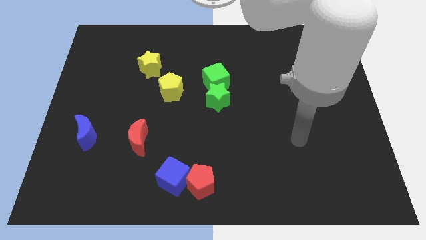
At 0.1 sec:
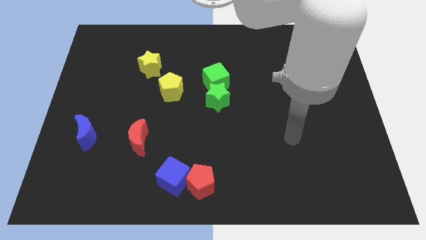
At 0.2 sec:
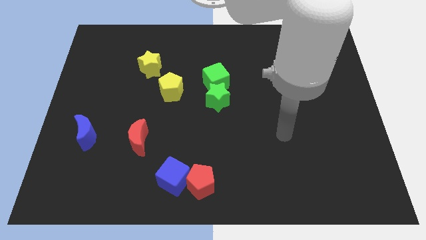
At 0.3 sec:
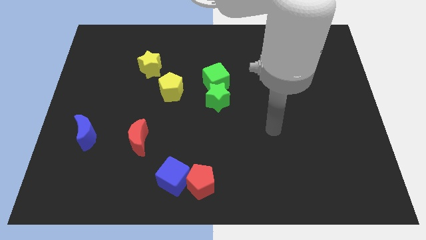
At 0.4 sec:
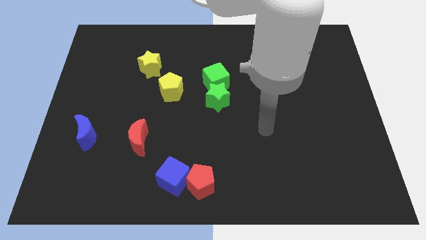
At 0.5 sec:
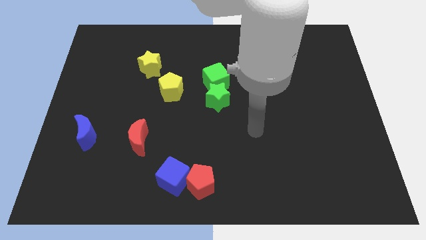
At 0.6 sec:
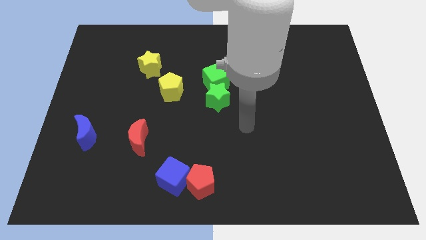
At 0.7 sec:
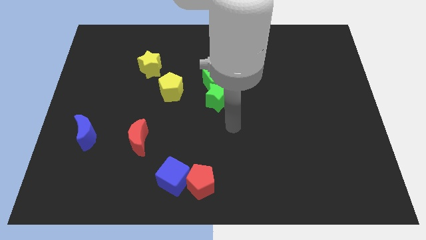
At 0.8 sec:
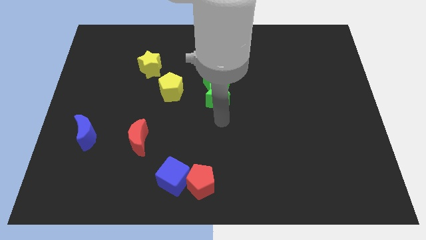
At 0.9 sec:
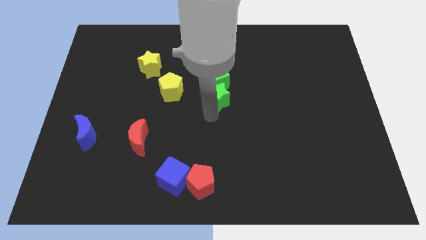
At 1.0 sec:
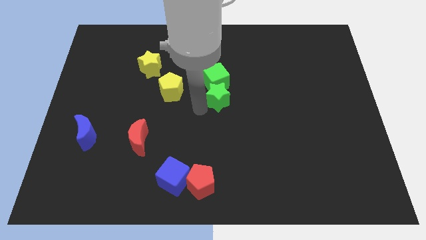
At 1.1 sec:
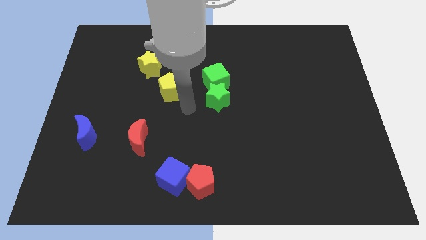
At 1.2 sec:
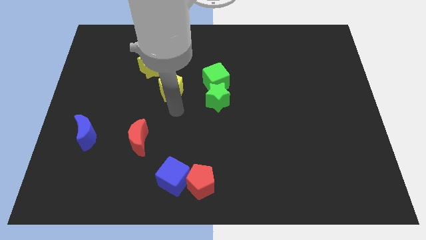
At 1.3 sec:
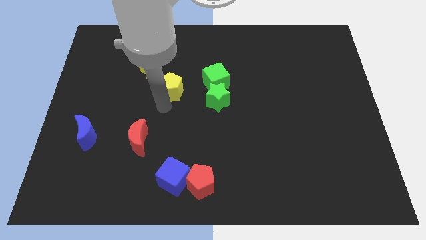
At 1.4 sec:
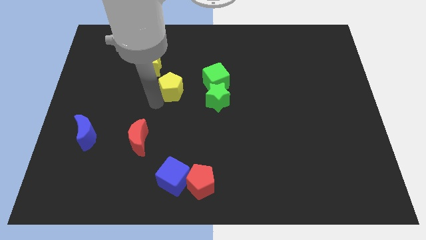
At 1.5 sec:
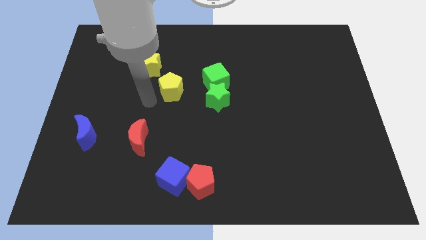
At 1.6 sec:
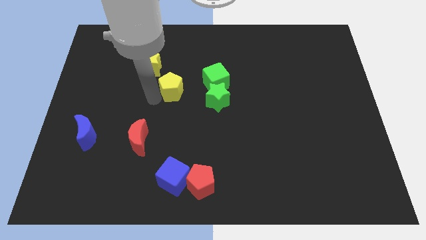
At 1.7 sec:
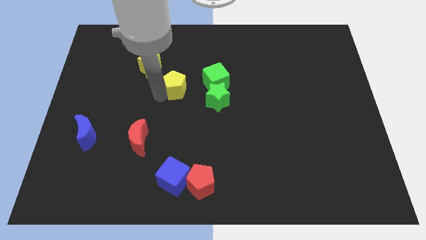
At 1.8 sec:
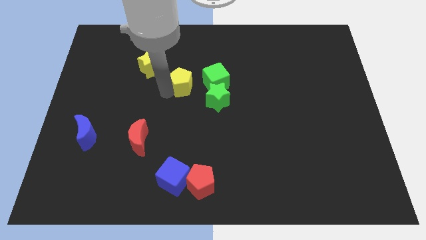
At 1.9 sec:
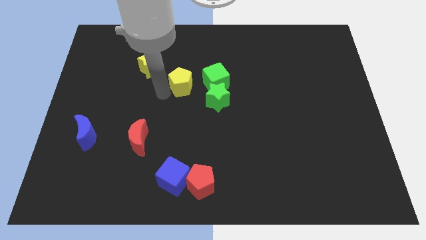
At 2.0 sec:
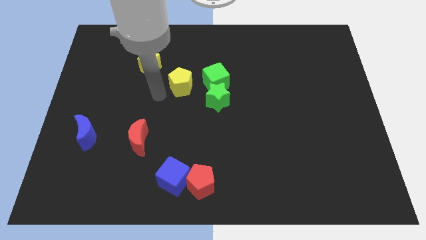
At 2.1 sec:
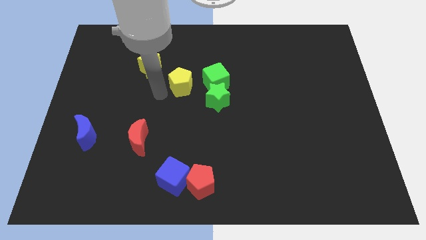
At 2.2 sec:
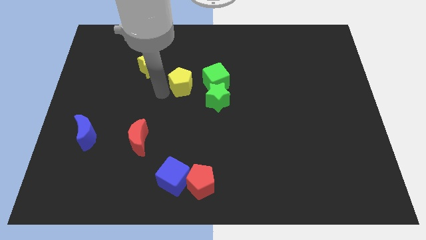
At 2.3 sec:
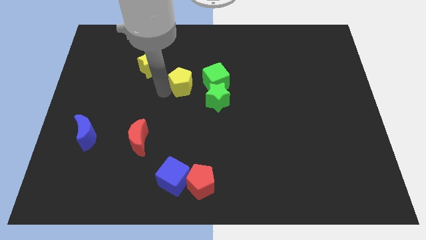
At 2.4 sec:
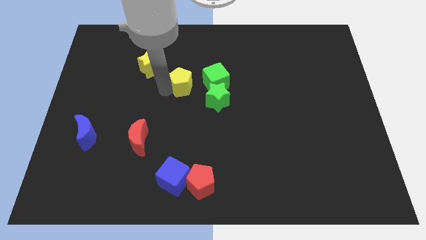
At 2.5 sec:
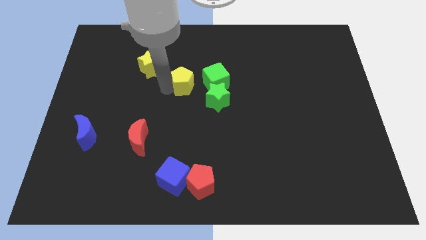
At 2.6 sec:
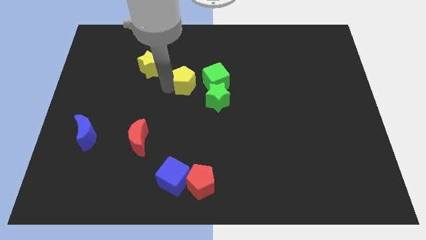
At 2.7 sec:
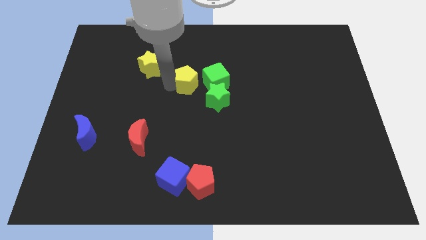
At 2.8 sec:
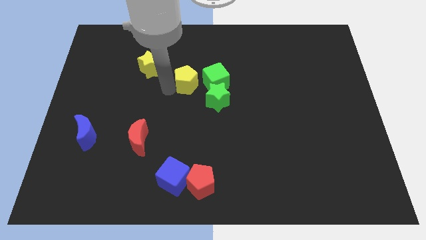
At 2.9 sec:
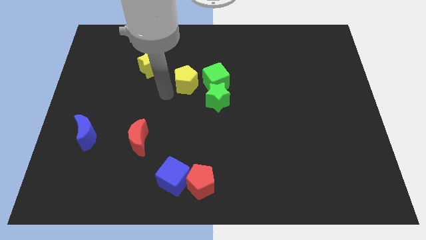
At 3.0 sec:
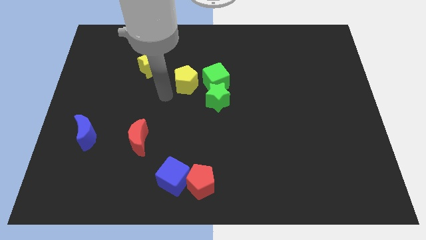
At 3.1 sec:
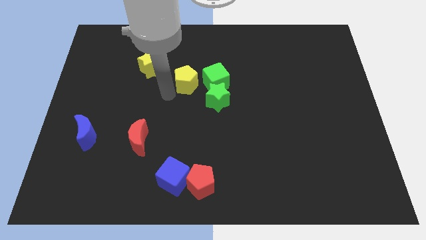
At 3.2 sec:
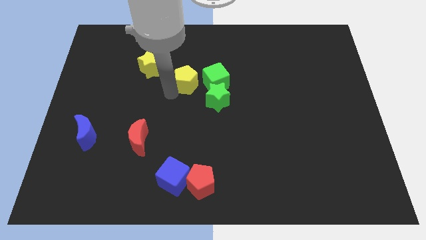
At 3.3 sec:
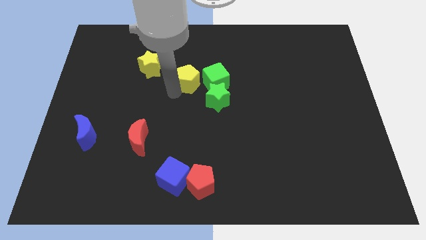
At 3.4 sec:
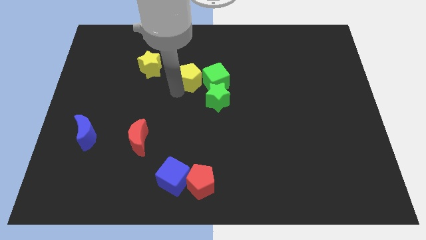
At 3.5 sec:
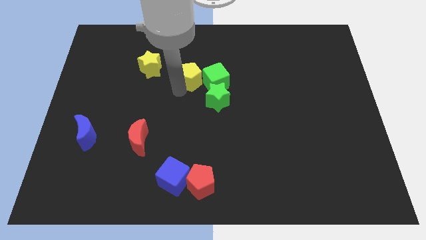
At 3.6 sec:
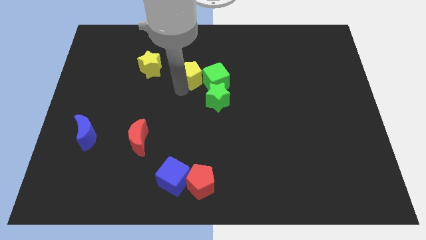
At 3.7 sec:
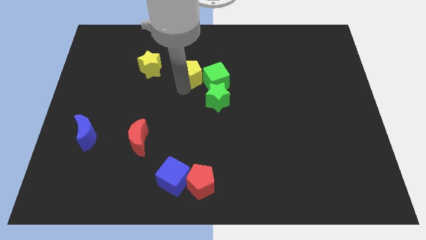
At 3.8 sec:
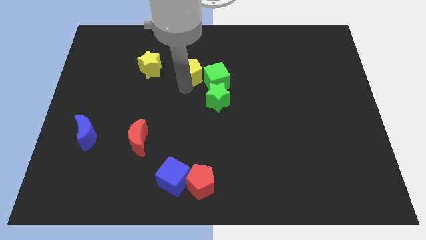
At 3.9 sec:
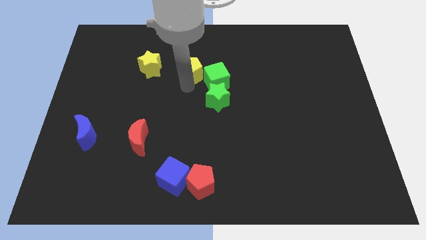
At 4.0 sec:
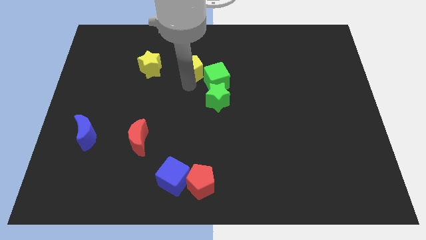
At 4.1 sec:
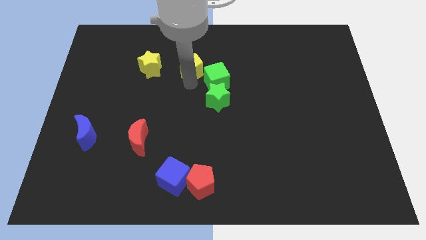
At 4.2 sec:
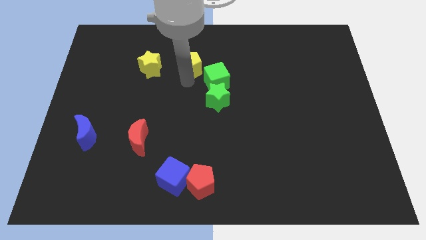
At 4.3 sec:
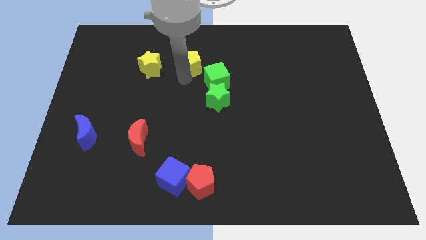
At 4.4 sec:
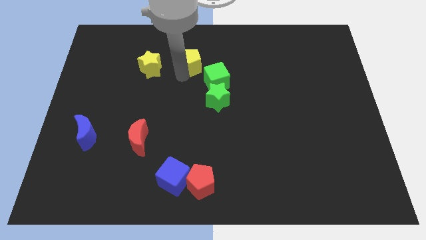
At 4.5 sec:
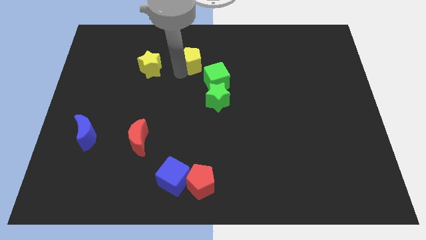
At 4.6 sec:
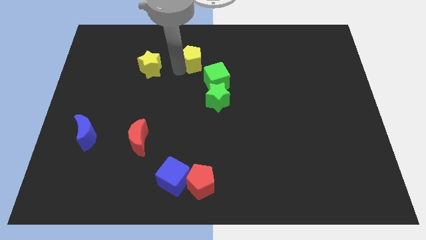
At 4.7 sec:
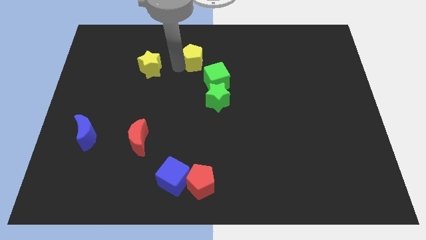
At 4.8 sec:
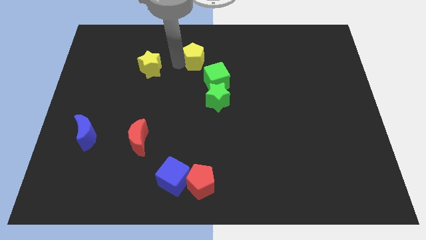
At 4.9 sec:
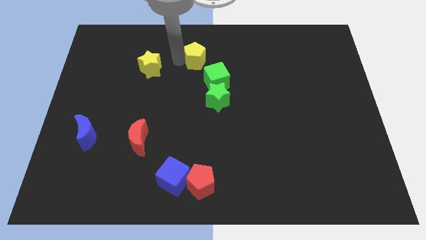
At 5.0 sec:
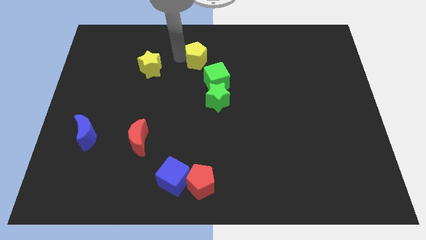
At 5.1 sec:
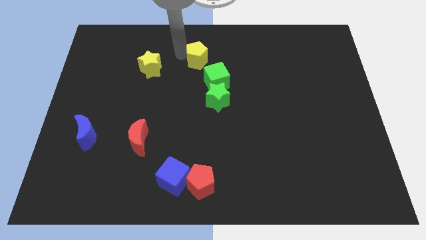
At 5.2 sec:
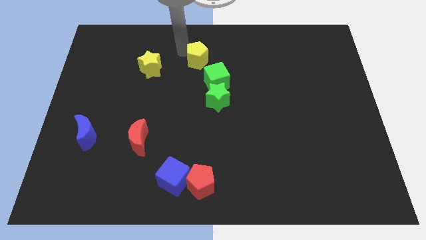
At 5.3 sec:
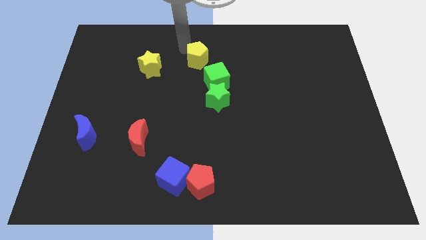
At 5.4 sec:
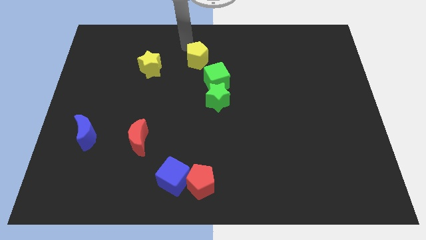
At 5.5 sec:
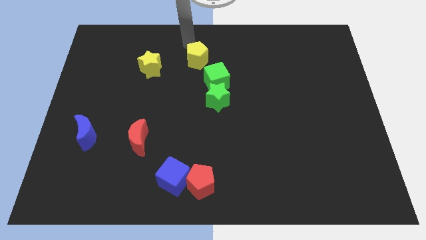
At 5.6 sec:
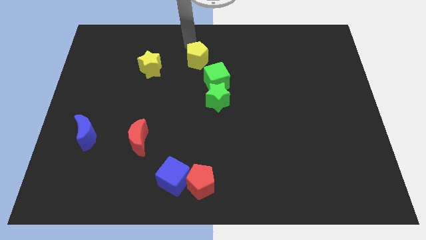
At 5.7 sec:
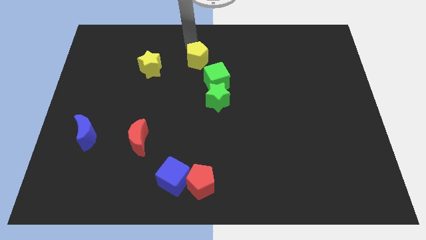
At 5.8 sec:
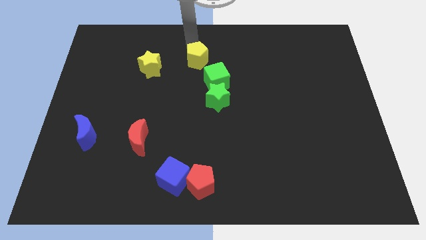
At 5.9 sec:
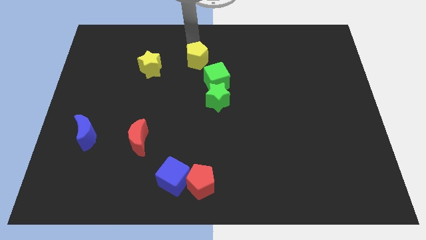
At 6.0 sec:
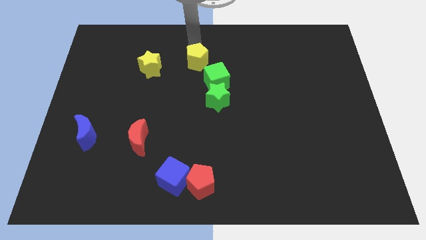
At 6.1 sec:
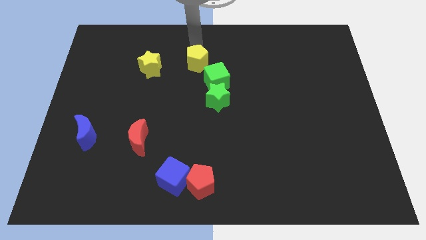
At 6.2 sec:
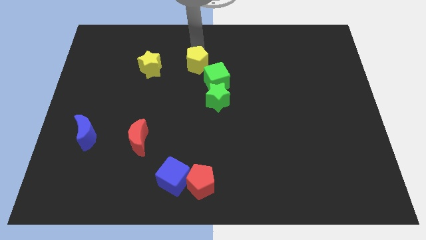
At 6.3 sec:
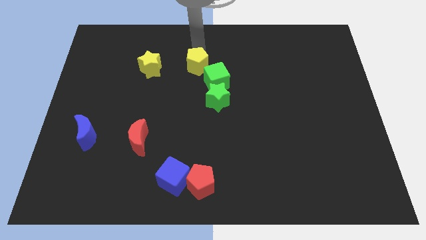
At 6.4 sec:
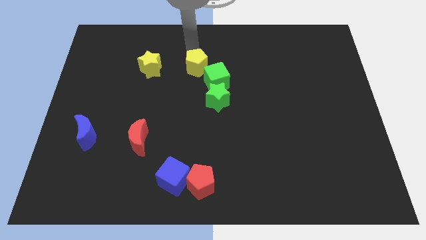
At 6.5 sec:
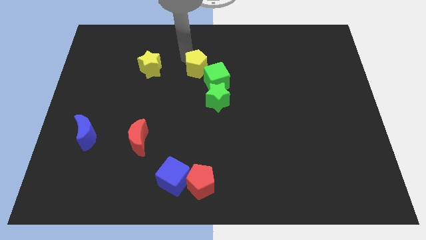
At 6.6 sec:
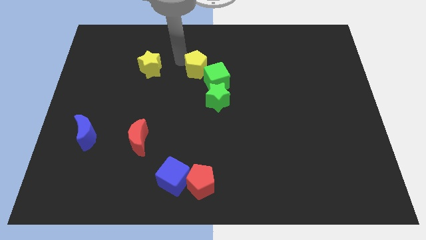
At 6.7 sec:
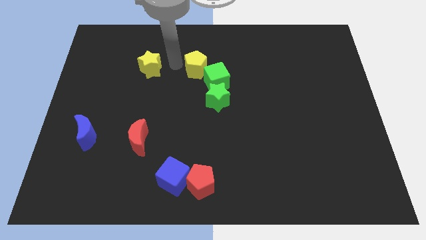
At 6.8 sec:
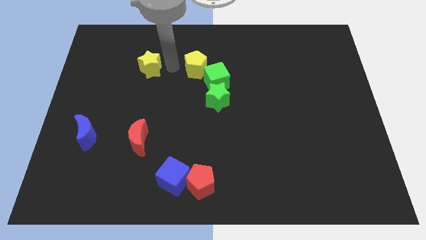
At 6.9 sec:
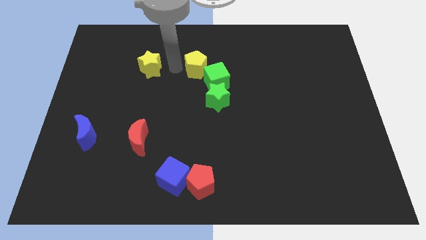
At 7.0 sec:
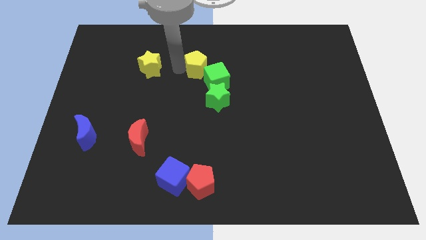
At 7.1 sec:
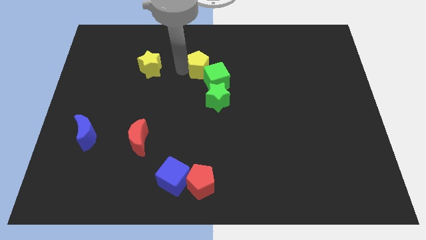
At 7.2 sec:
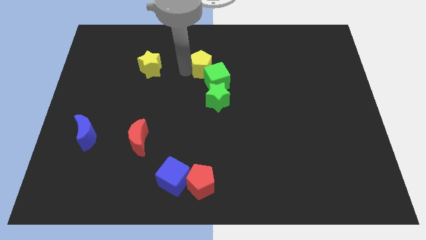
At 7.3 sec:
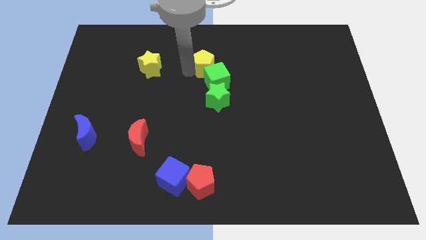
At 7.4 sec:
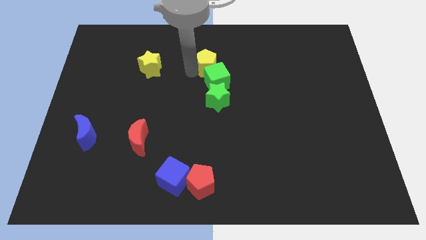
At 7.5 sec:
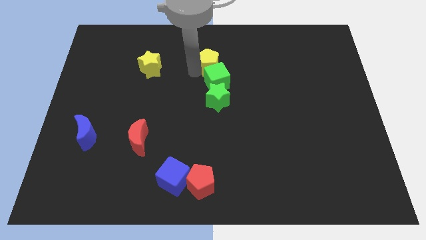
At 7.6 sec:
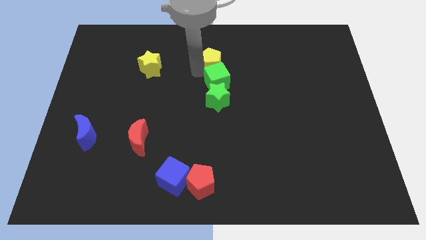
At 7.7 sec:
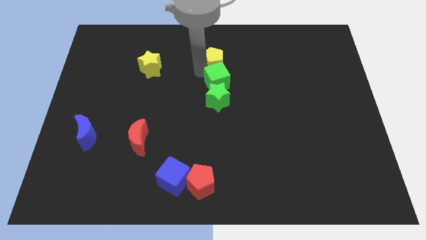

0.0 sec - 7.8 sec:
push the yellow pentagon to the right somewhat
